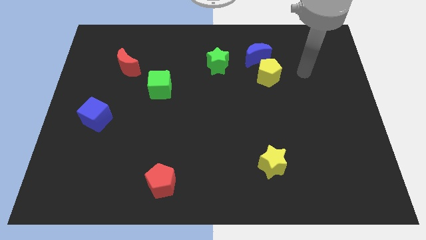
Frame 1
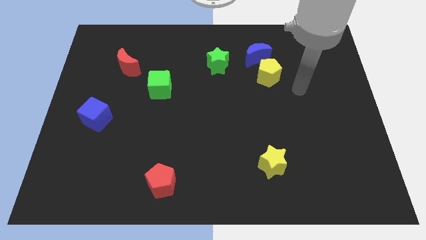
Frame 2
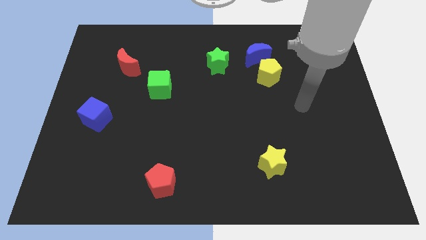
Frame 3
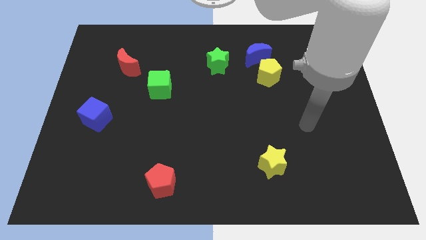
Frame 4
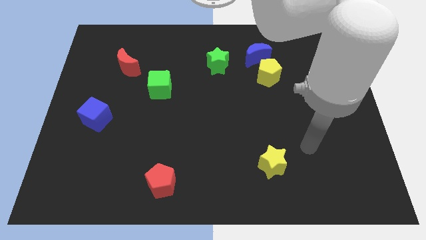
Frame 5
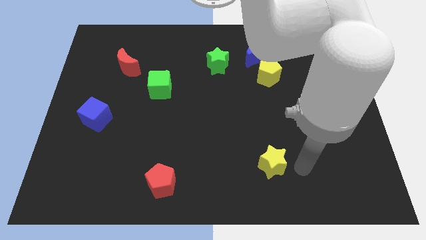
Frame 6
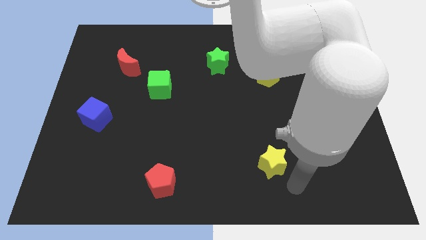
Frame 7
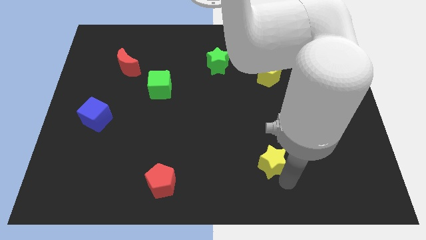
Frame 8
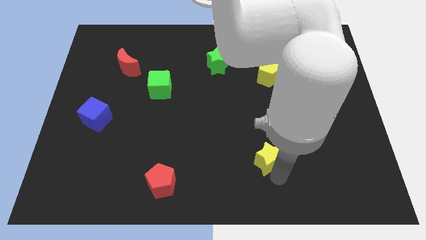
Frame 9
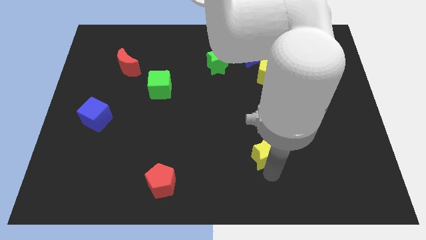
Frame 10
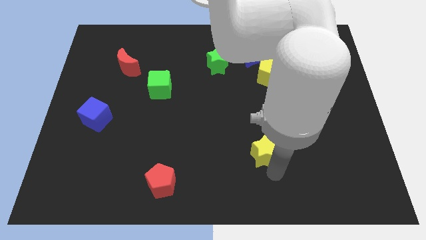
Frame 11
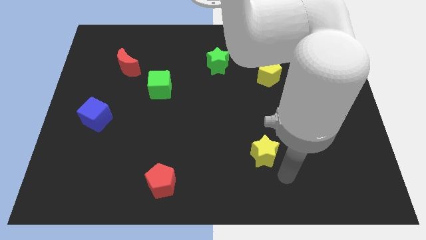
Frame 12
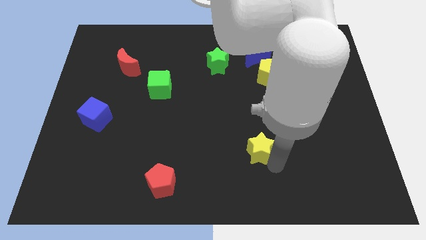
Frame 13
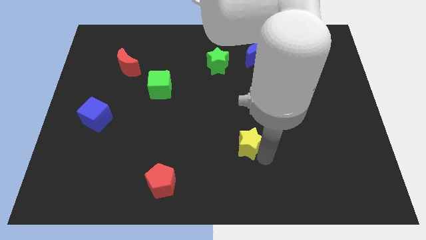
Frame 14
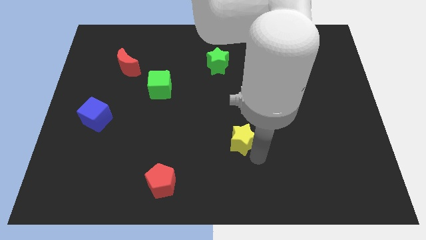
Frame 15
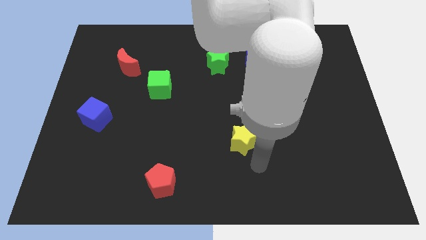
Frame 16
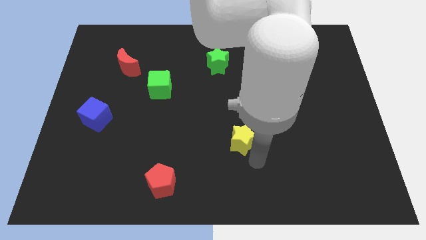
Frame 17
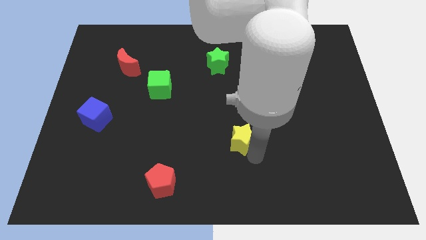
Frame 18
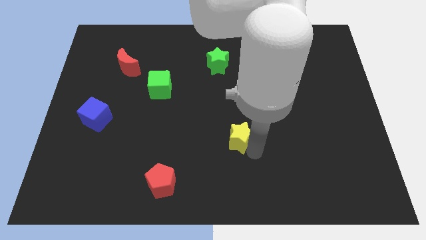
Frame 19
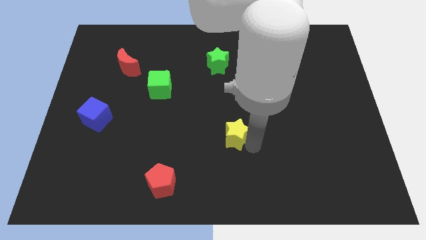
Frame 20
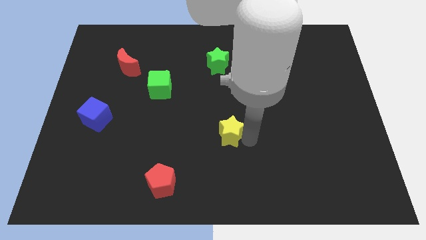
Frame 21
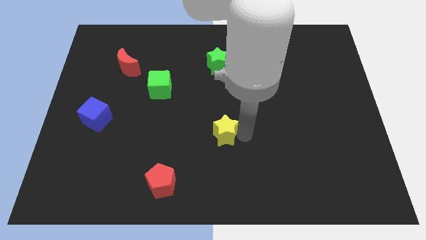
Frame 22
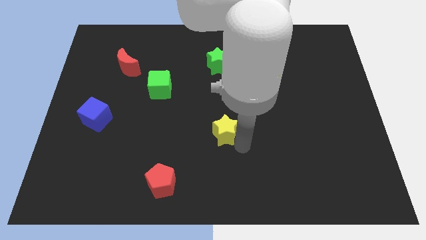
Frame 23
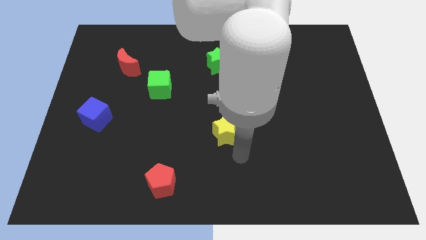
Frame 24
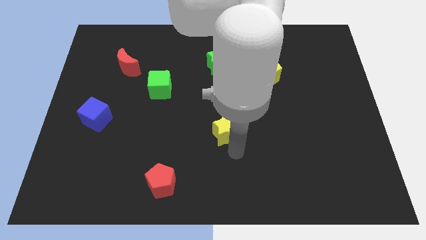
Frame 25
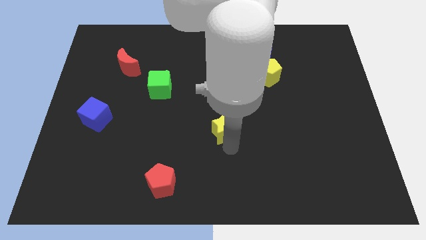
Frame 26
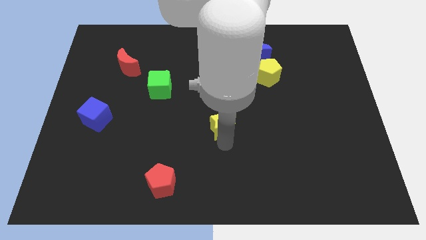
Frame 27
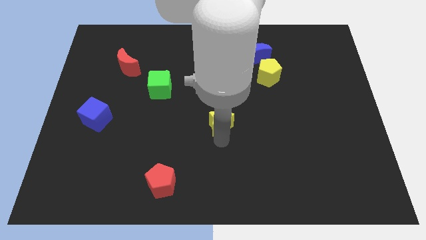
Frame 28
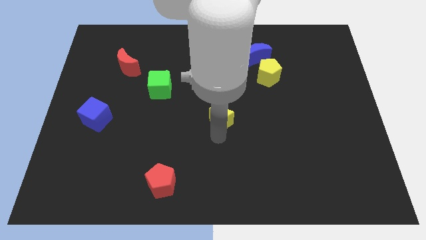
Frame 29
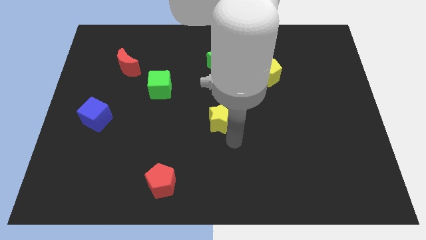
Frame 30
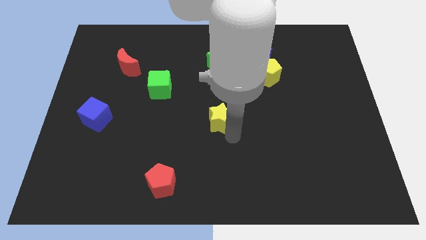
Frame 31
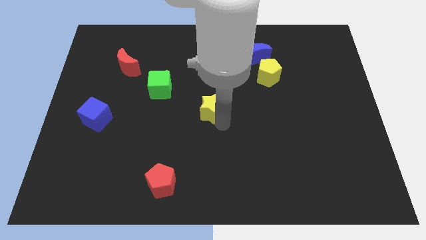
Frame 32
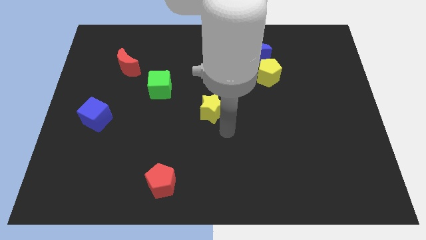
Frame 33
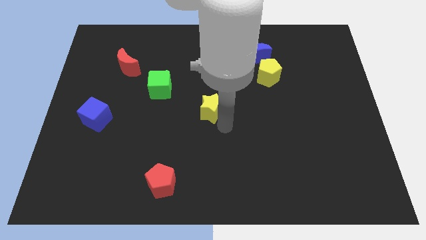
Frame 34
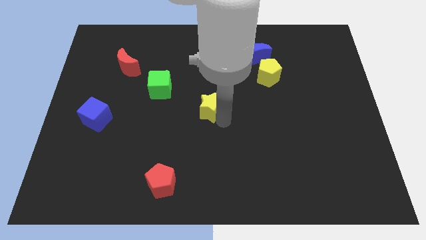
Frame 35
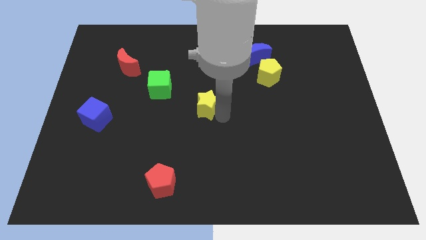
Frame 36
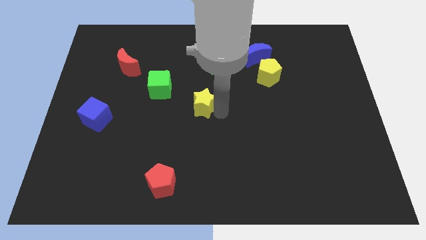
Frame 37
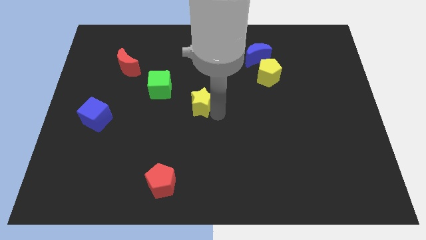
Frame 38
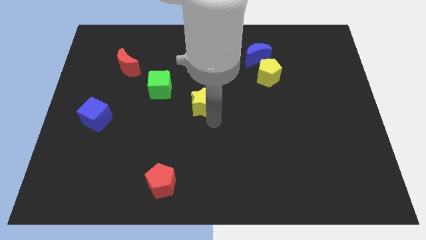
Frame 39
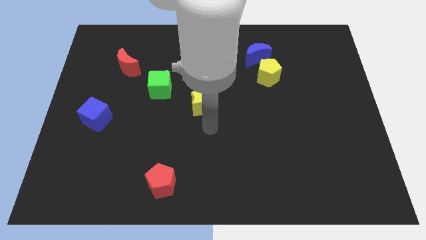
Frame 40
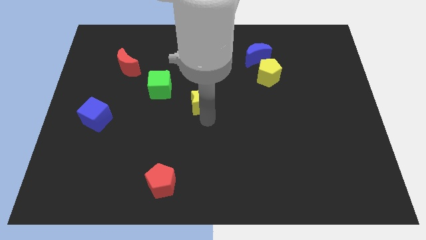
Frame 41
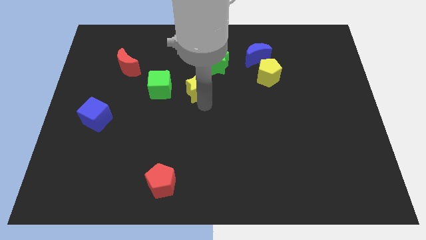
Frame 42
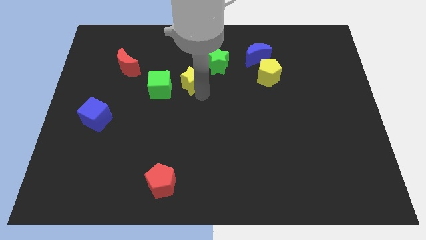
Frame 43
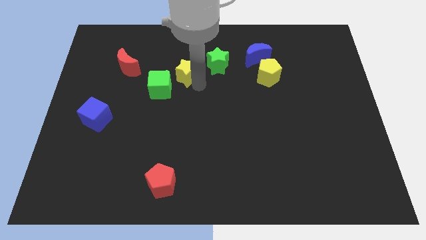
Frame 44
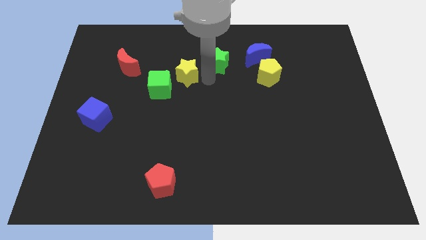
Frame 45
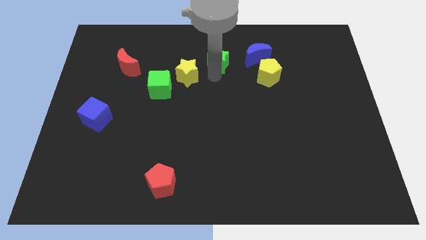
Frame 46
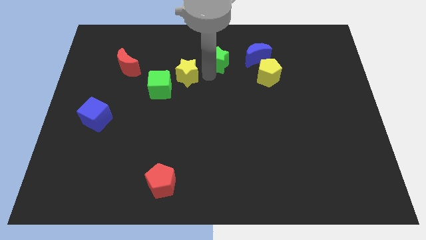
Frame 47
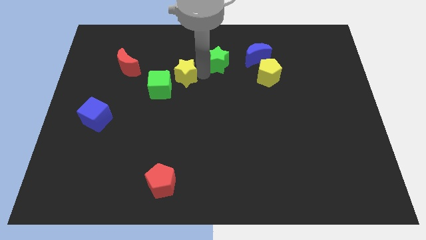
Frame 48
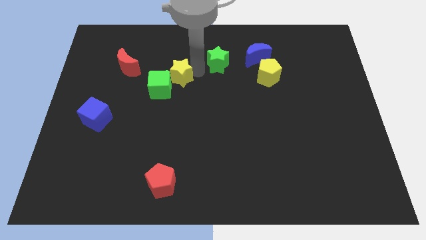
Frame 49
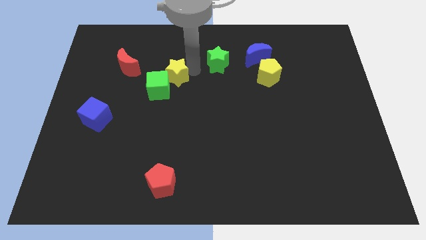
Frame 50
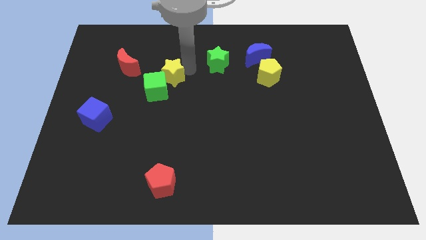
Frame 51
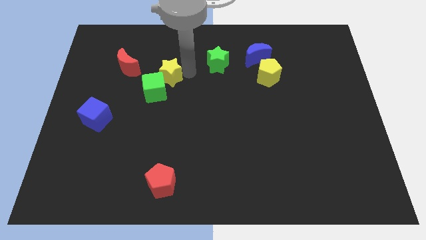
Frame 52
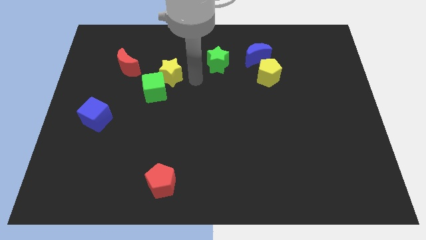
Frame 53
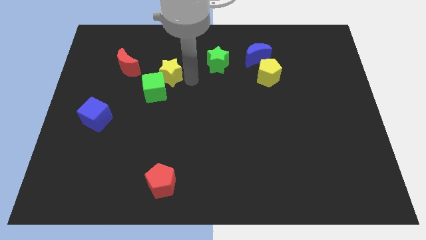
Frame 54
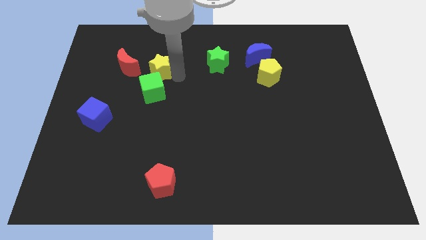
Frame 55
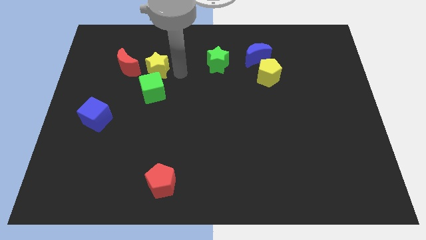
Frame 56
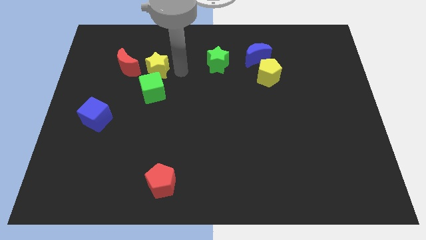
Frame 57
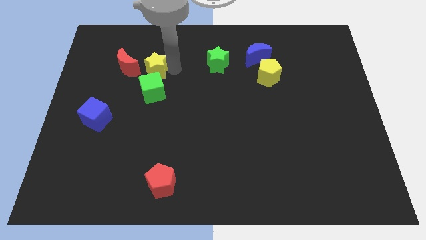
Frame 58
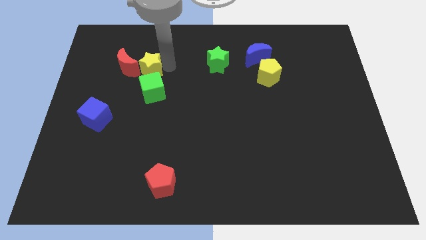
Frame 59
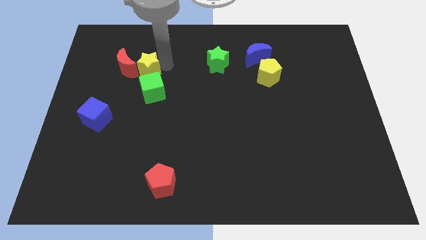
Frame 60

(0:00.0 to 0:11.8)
slide the yellow star towards the red moon

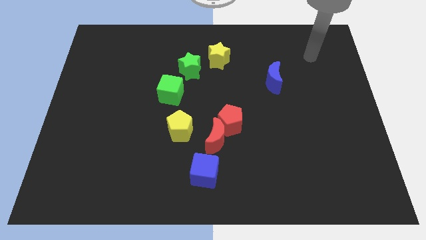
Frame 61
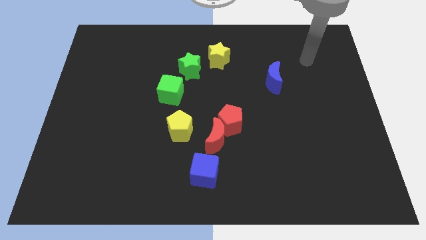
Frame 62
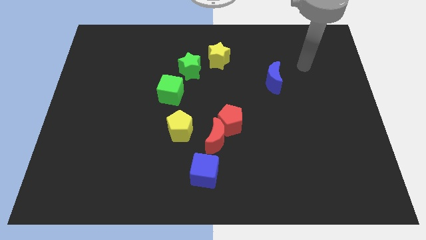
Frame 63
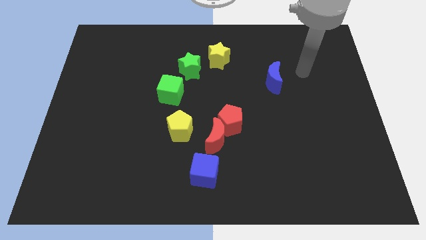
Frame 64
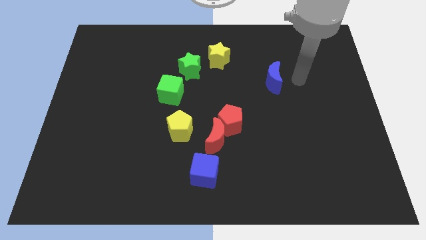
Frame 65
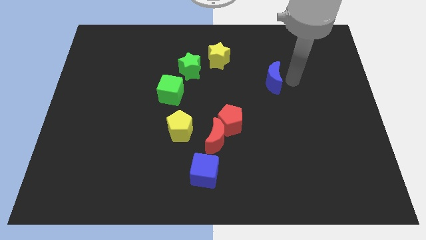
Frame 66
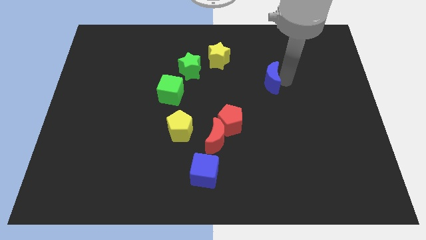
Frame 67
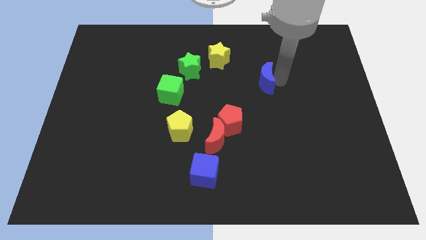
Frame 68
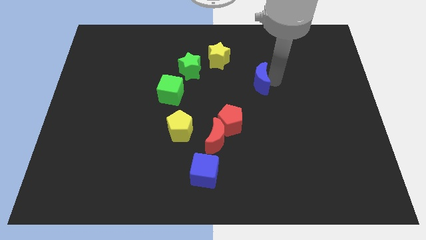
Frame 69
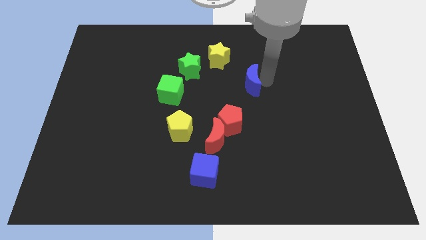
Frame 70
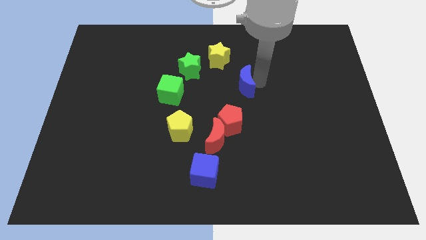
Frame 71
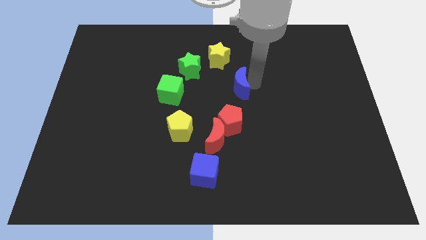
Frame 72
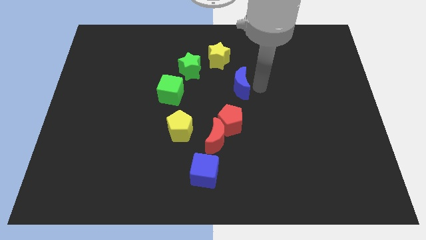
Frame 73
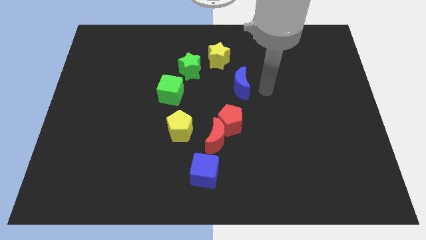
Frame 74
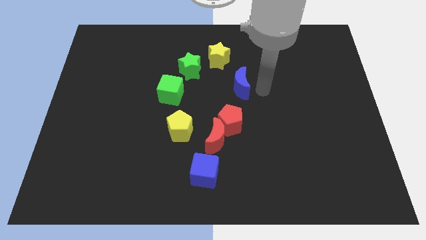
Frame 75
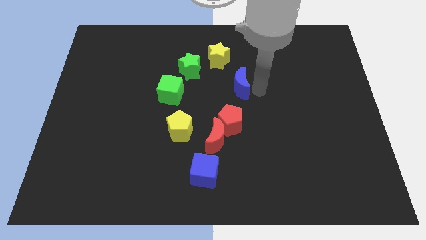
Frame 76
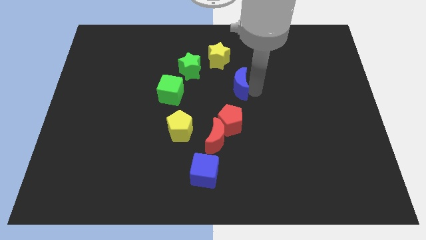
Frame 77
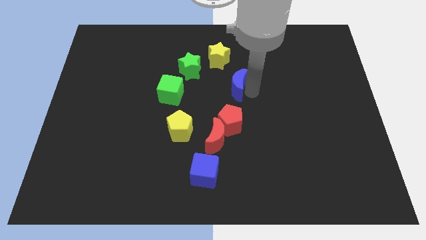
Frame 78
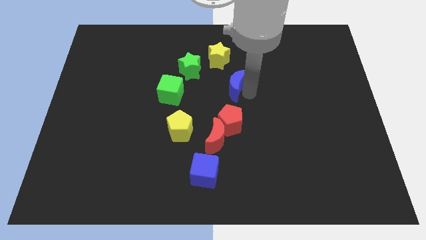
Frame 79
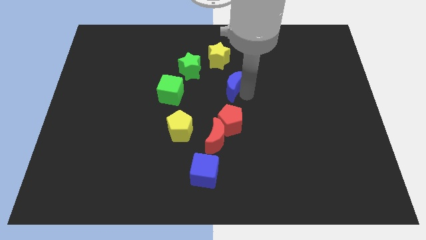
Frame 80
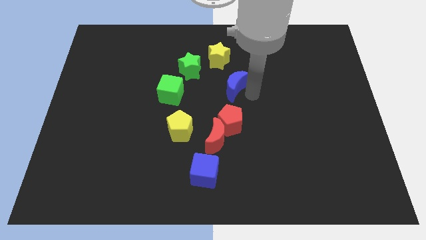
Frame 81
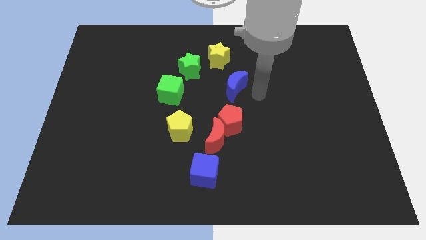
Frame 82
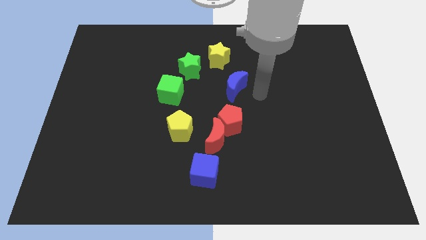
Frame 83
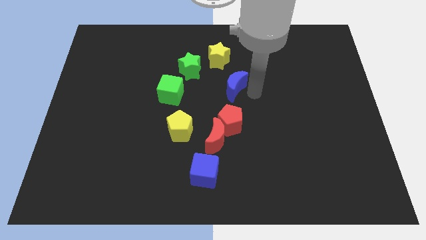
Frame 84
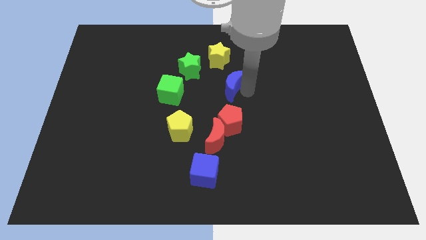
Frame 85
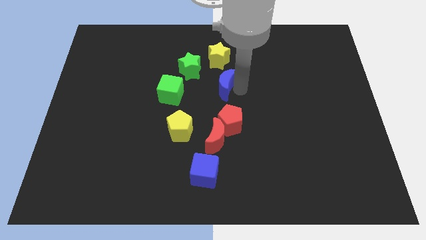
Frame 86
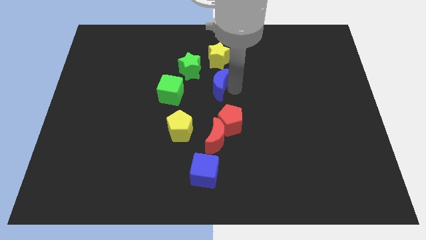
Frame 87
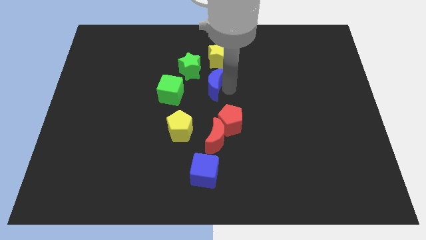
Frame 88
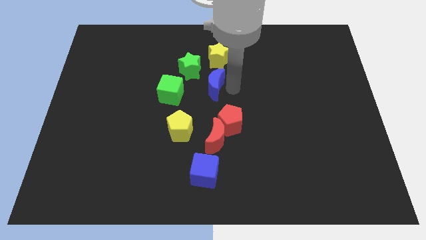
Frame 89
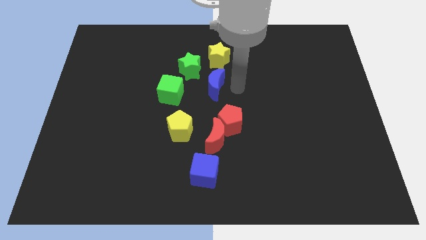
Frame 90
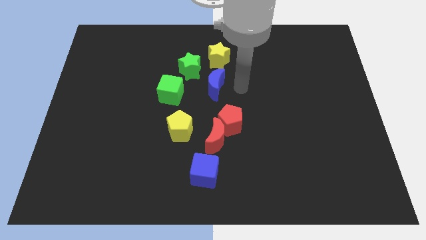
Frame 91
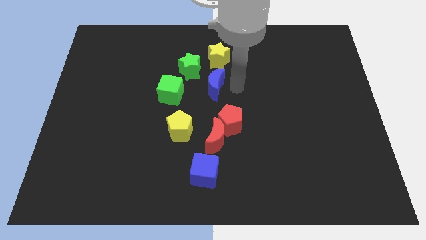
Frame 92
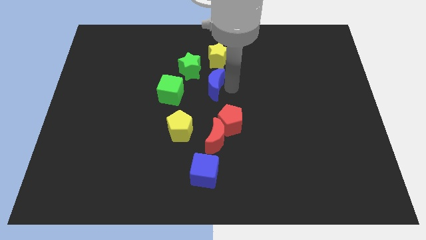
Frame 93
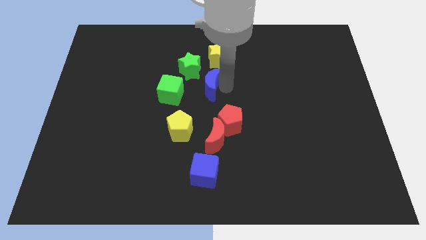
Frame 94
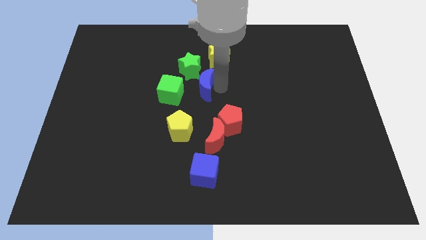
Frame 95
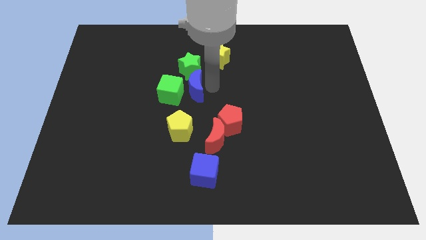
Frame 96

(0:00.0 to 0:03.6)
push the blue moon close to the green cube
